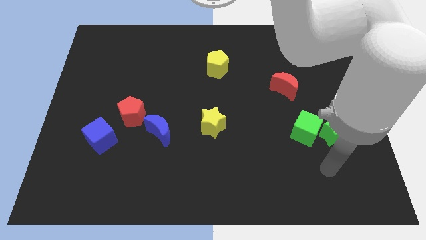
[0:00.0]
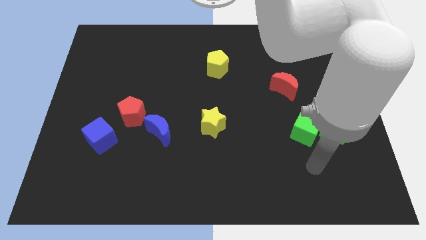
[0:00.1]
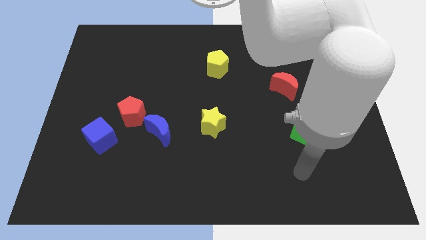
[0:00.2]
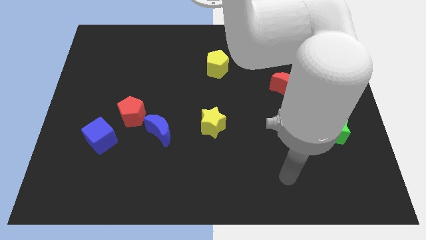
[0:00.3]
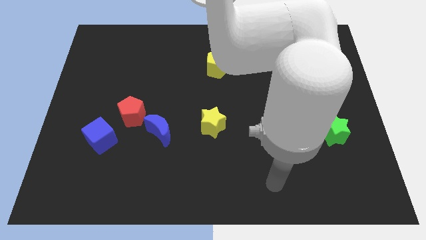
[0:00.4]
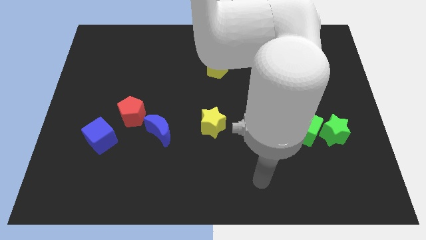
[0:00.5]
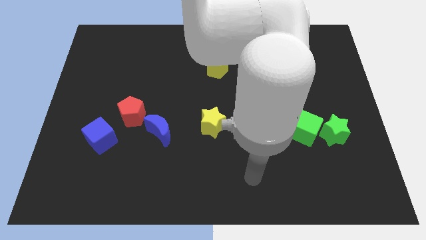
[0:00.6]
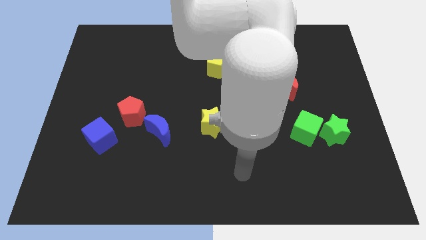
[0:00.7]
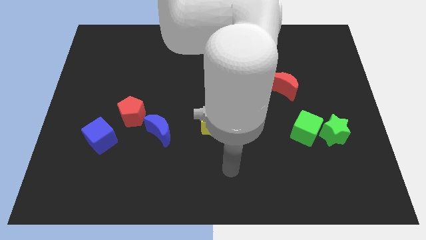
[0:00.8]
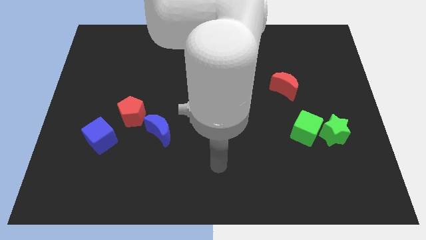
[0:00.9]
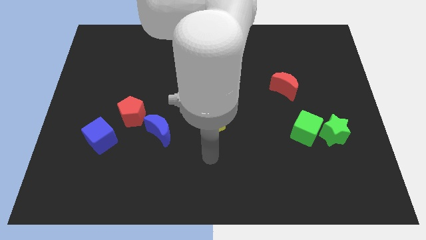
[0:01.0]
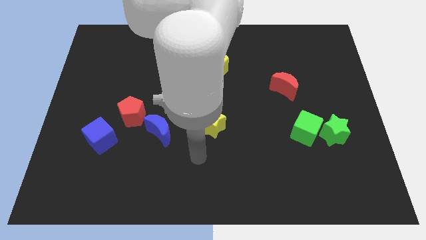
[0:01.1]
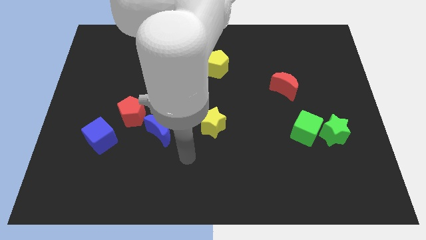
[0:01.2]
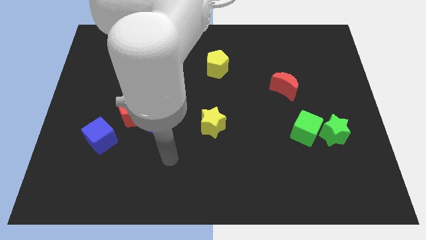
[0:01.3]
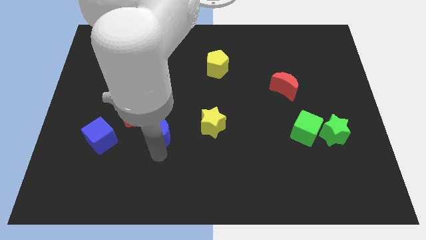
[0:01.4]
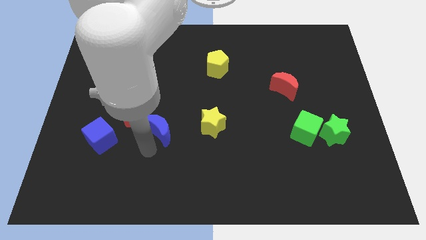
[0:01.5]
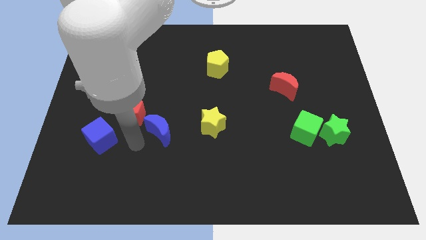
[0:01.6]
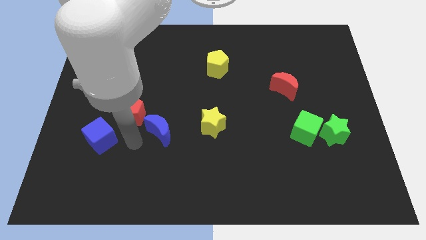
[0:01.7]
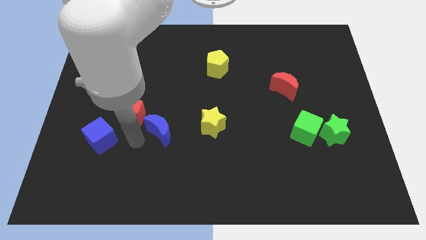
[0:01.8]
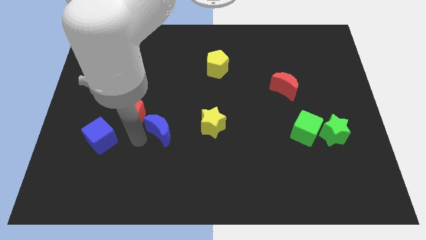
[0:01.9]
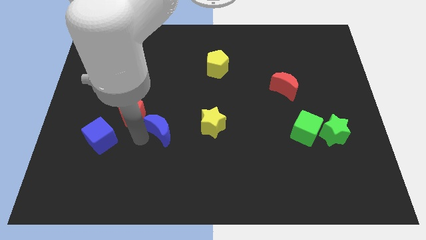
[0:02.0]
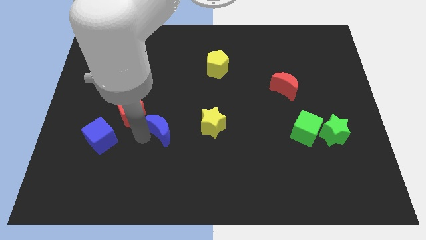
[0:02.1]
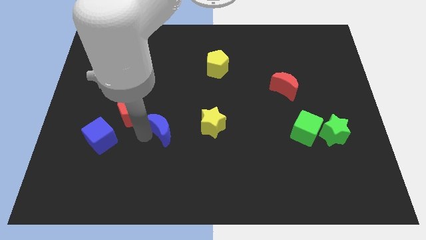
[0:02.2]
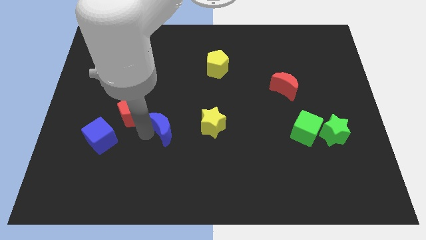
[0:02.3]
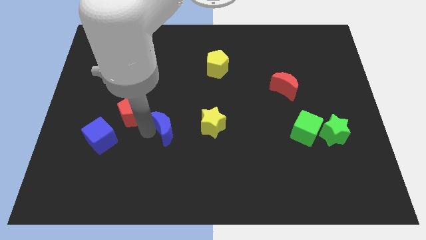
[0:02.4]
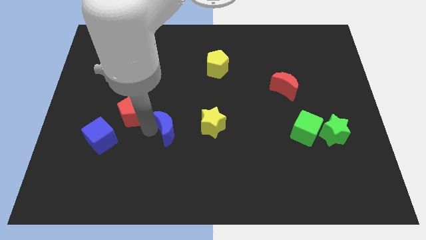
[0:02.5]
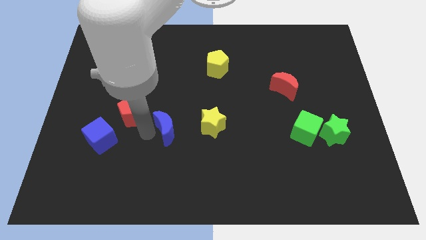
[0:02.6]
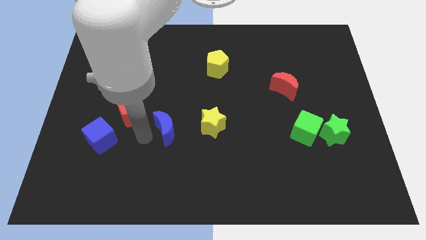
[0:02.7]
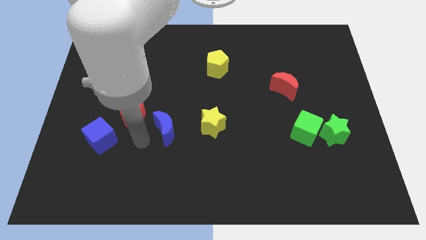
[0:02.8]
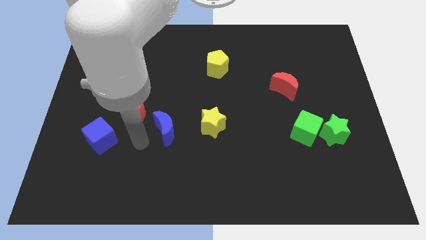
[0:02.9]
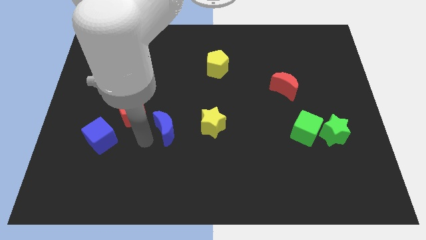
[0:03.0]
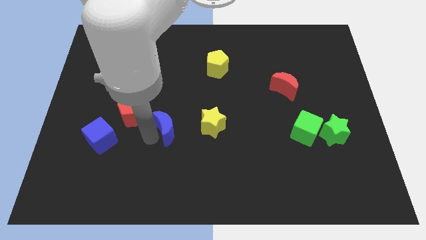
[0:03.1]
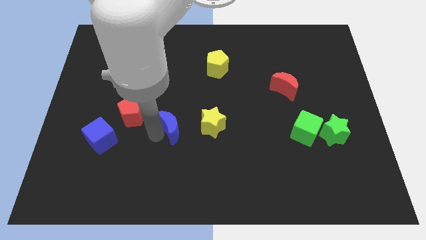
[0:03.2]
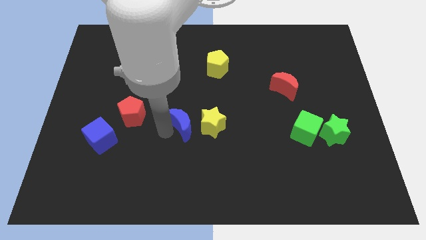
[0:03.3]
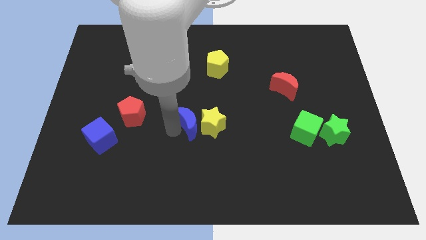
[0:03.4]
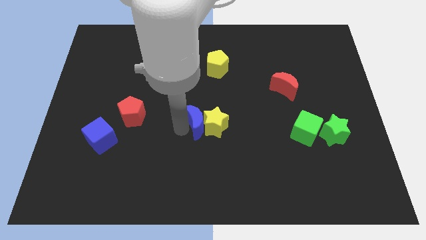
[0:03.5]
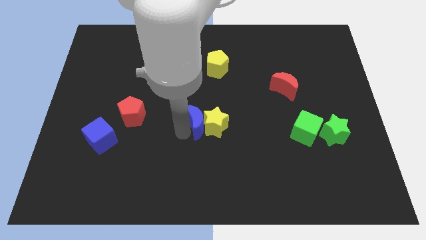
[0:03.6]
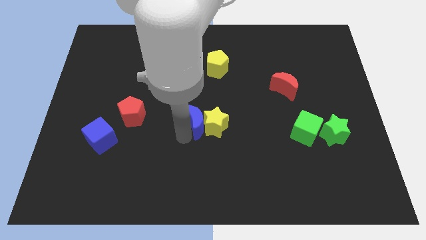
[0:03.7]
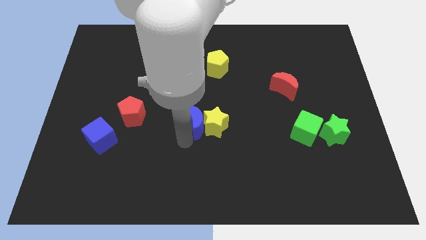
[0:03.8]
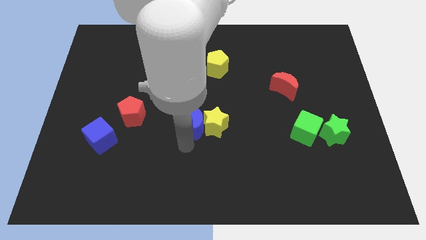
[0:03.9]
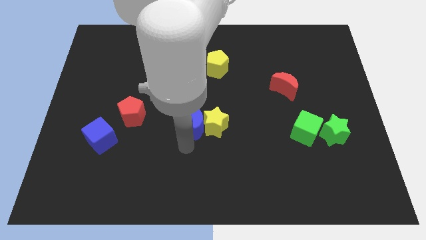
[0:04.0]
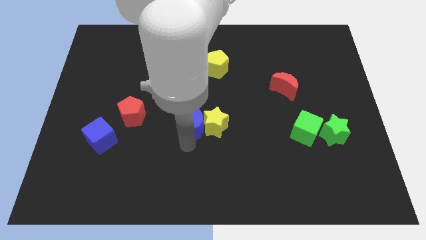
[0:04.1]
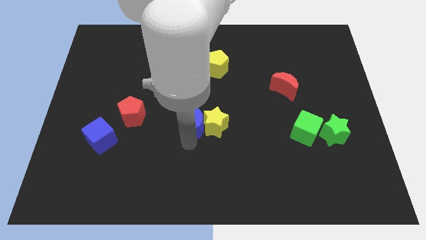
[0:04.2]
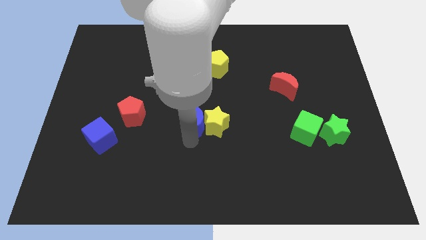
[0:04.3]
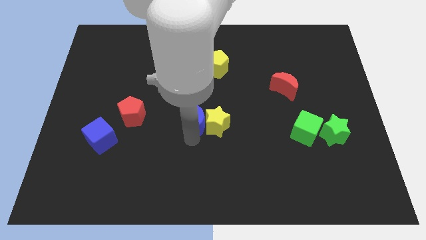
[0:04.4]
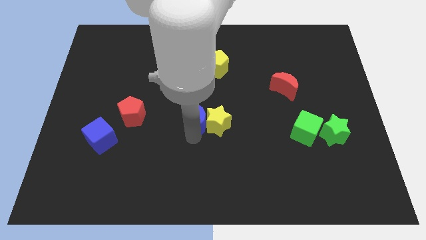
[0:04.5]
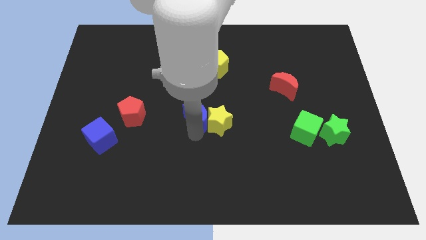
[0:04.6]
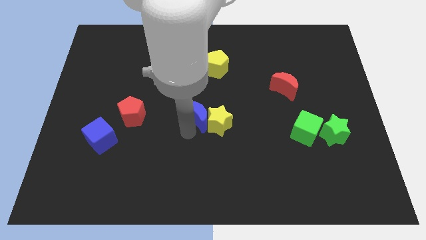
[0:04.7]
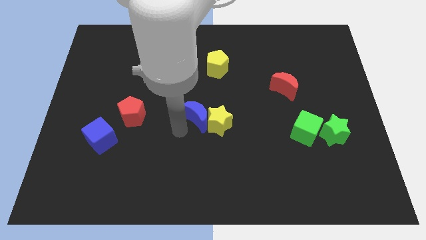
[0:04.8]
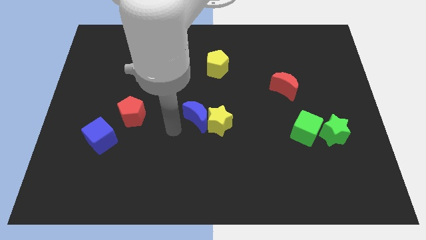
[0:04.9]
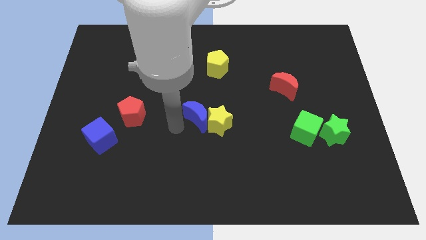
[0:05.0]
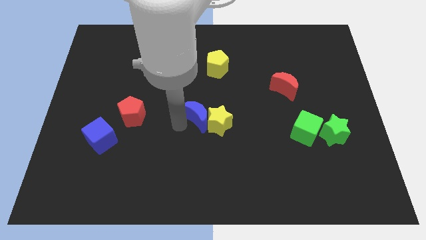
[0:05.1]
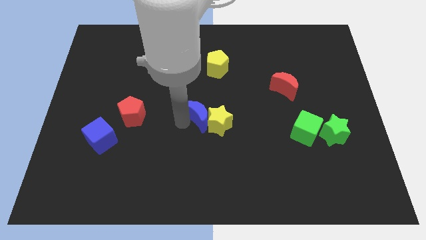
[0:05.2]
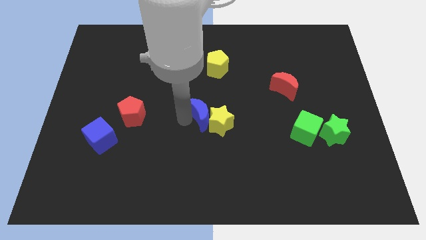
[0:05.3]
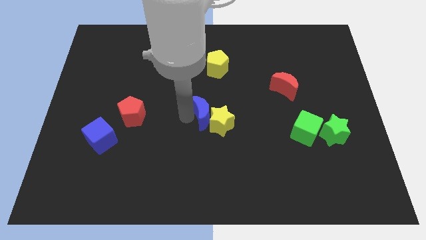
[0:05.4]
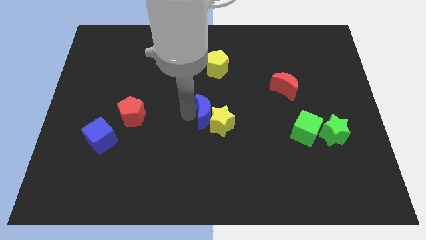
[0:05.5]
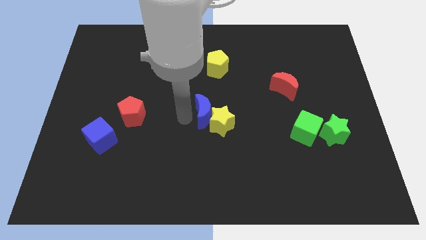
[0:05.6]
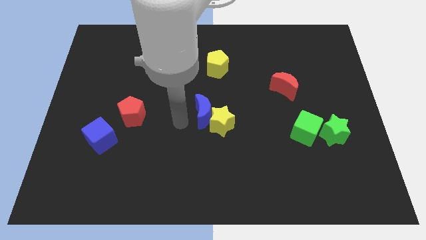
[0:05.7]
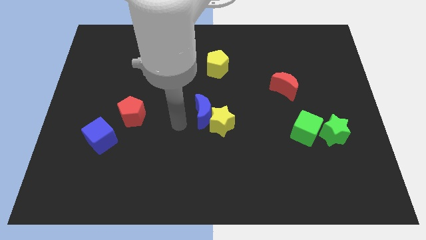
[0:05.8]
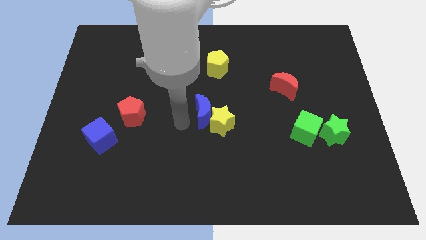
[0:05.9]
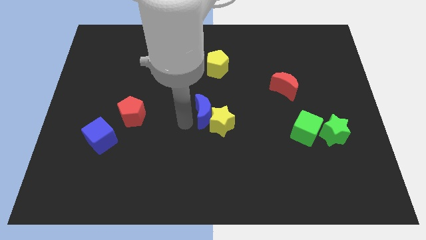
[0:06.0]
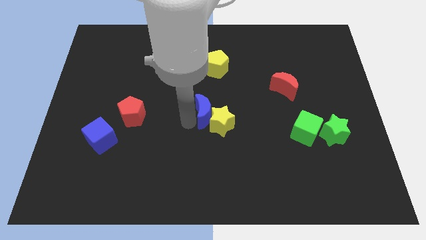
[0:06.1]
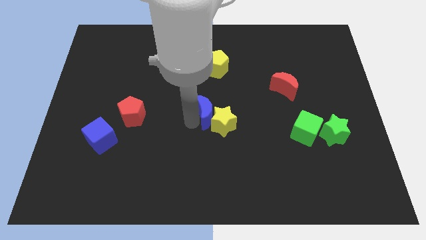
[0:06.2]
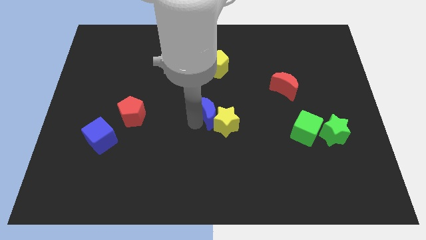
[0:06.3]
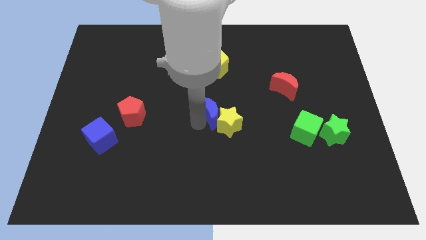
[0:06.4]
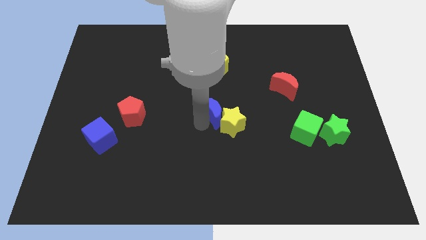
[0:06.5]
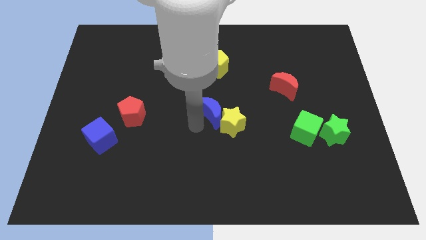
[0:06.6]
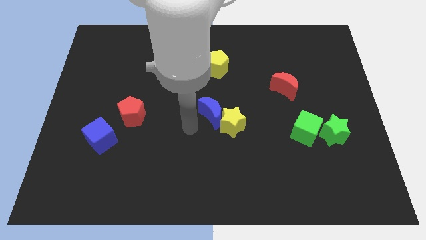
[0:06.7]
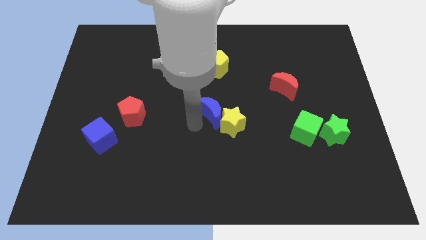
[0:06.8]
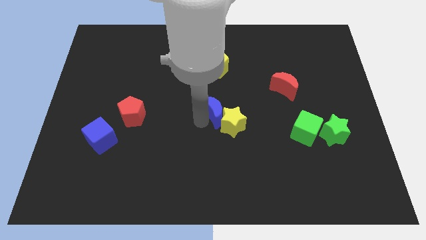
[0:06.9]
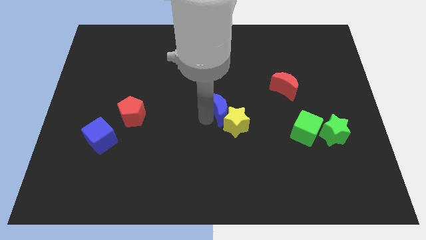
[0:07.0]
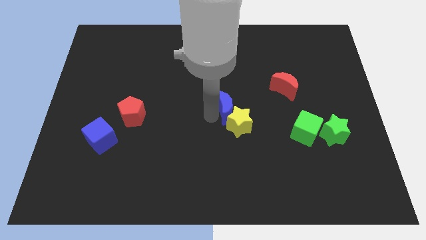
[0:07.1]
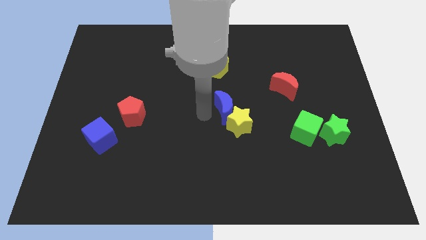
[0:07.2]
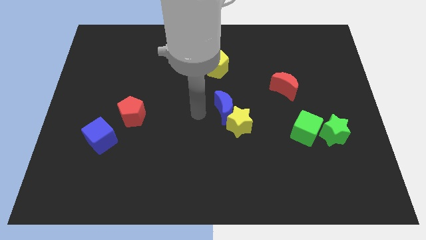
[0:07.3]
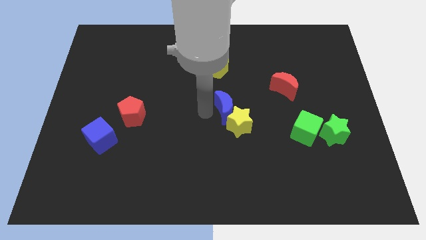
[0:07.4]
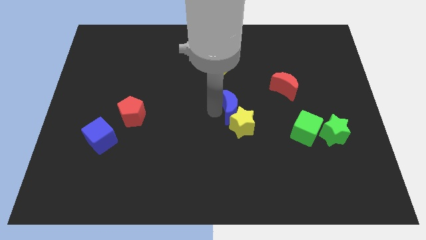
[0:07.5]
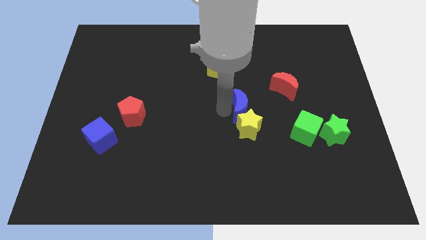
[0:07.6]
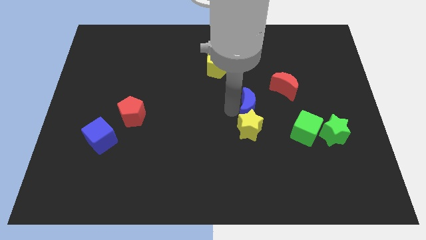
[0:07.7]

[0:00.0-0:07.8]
push the blue moon to the bottom left of the red moon
